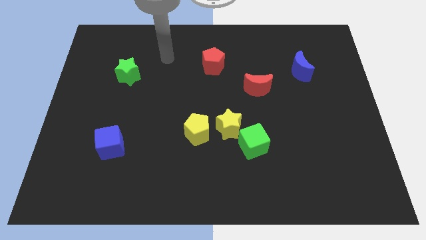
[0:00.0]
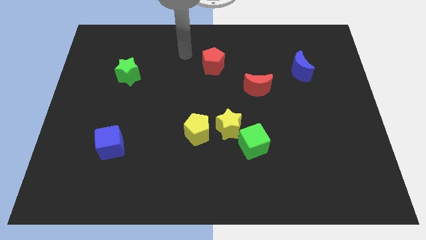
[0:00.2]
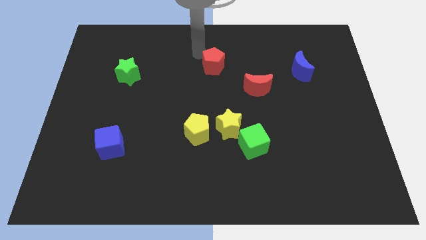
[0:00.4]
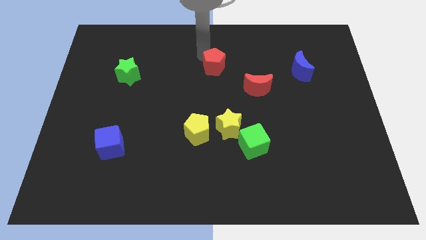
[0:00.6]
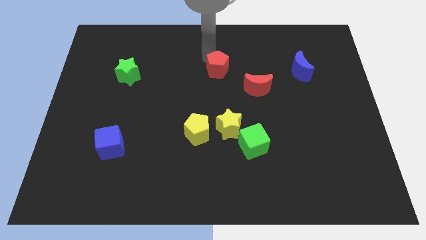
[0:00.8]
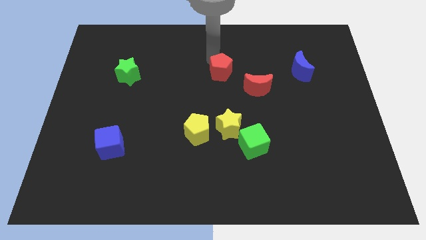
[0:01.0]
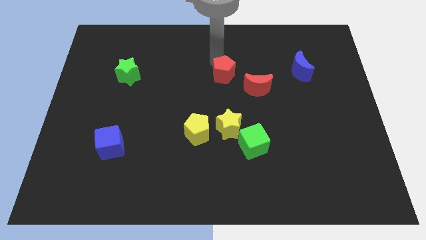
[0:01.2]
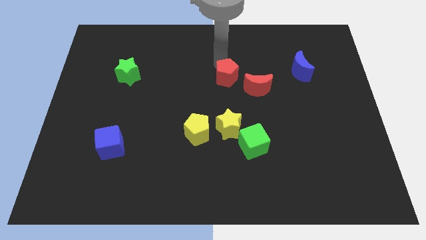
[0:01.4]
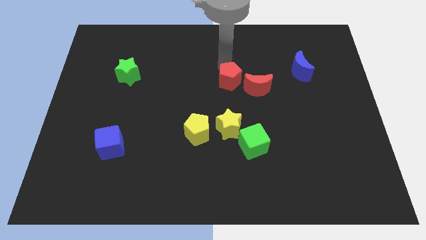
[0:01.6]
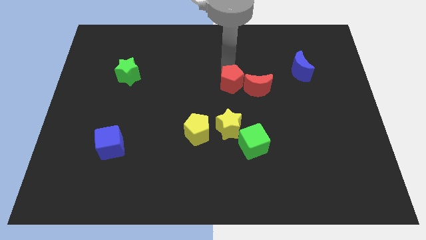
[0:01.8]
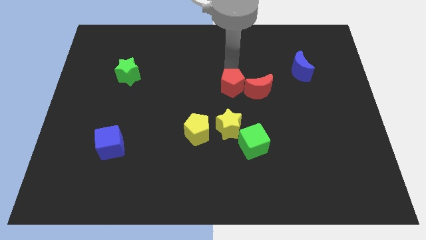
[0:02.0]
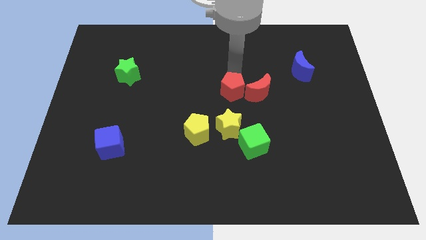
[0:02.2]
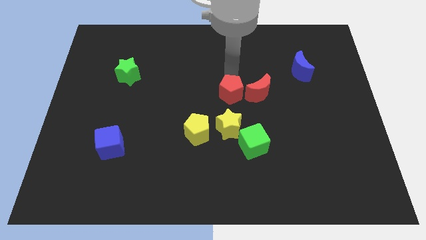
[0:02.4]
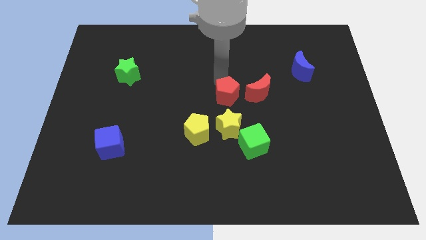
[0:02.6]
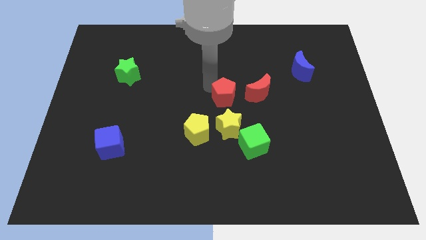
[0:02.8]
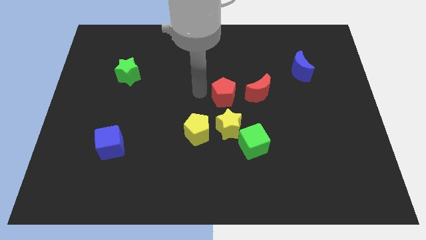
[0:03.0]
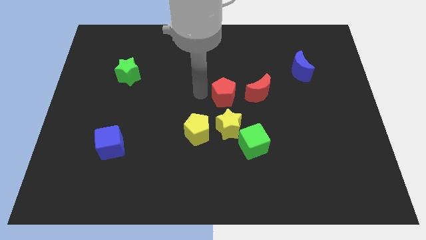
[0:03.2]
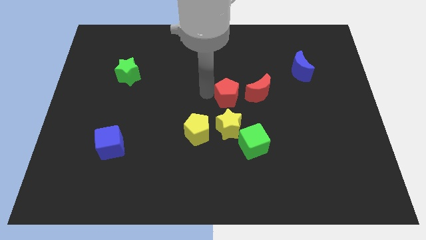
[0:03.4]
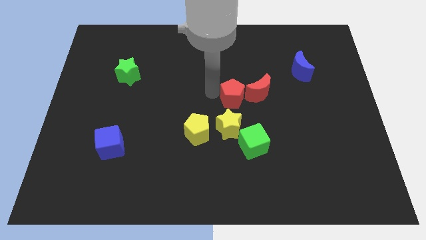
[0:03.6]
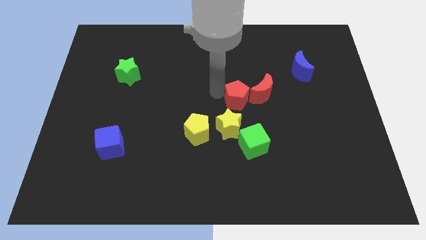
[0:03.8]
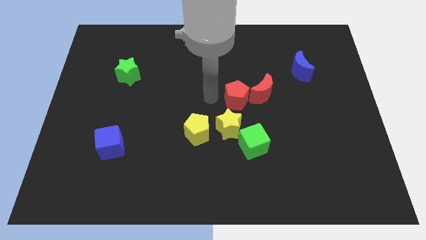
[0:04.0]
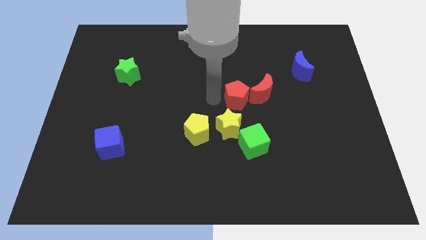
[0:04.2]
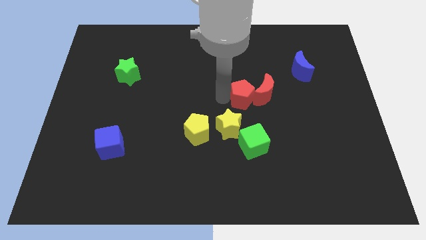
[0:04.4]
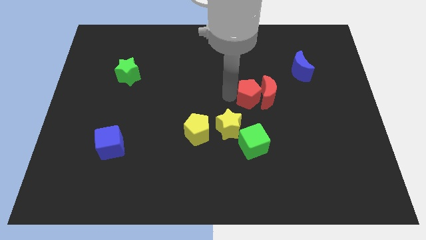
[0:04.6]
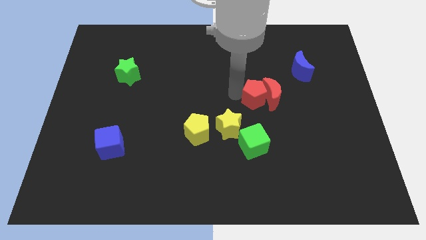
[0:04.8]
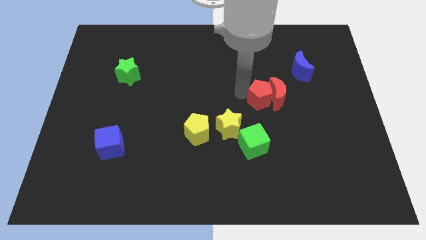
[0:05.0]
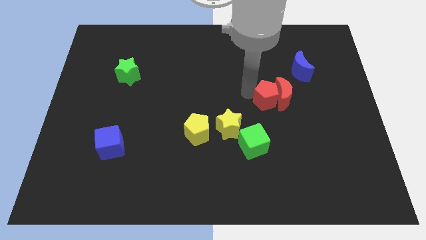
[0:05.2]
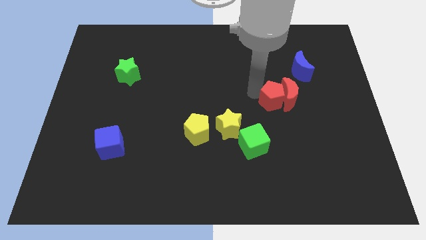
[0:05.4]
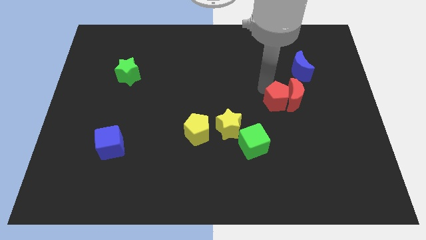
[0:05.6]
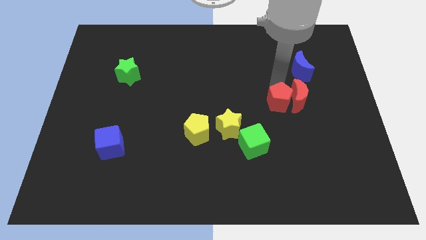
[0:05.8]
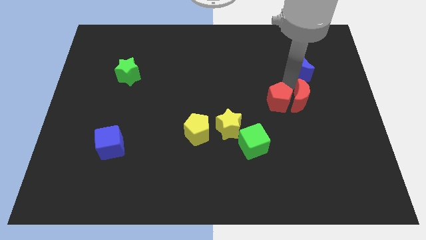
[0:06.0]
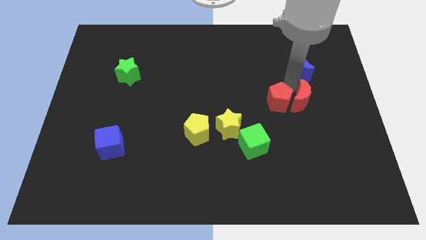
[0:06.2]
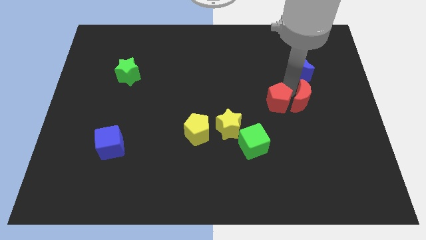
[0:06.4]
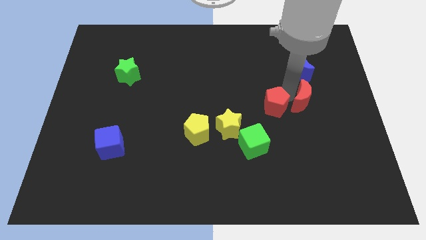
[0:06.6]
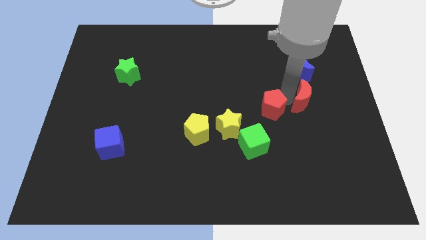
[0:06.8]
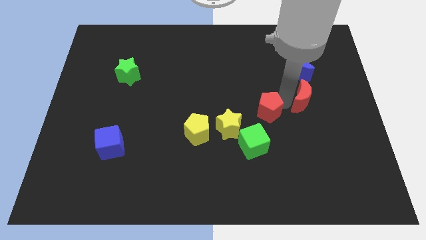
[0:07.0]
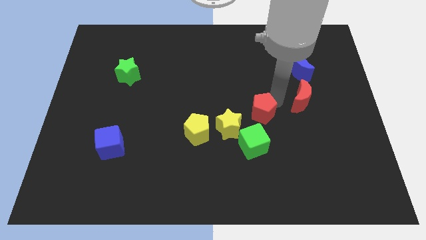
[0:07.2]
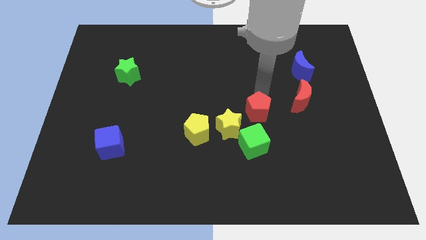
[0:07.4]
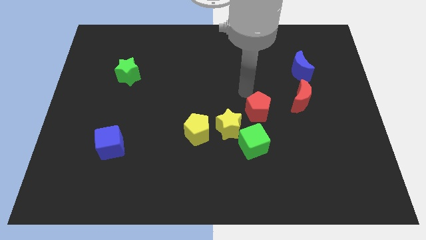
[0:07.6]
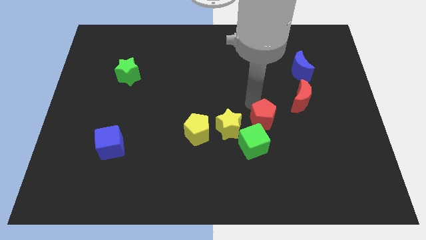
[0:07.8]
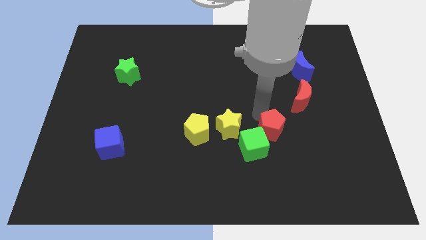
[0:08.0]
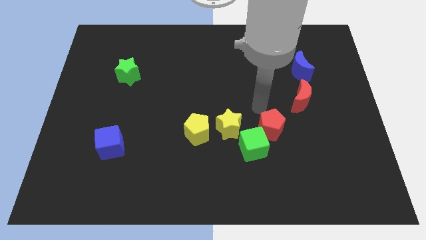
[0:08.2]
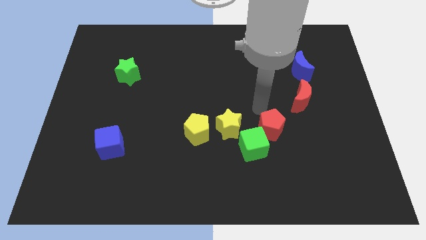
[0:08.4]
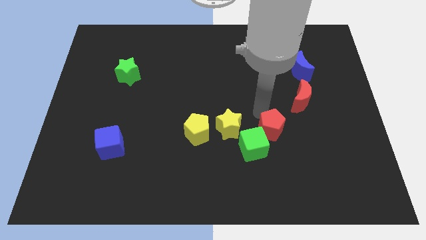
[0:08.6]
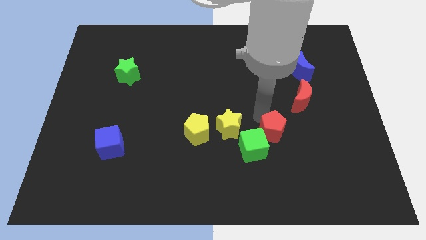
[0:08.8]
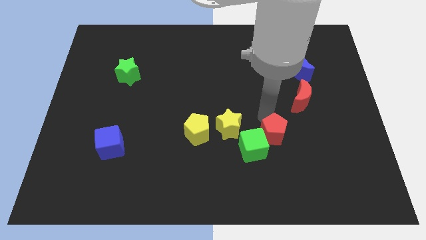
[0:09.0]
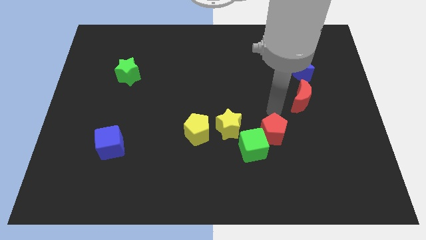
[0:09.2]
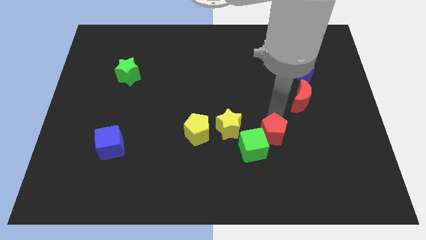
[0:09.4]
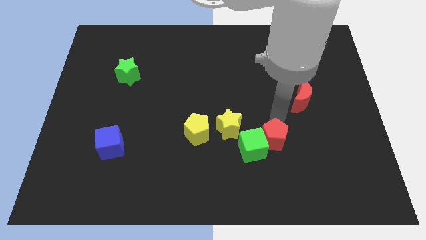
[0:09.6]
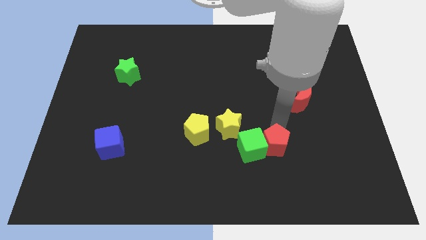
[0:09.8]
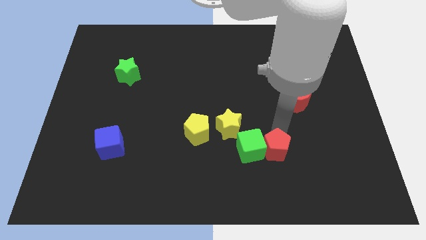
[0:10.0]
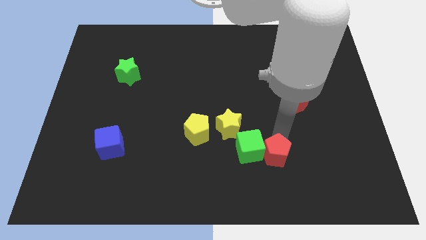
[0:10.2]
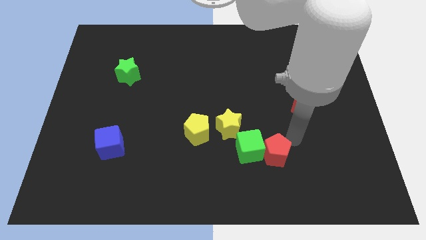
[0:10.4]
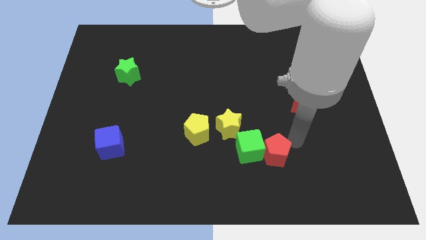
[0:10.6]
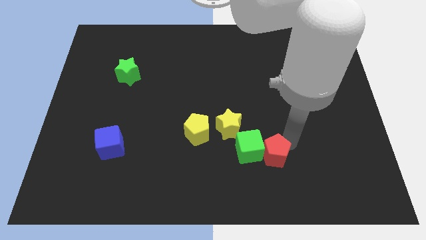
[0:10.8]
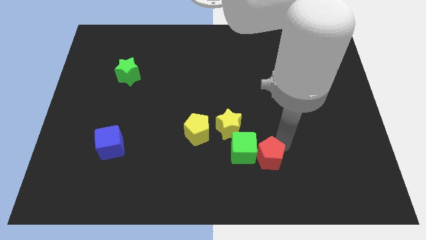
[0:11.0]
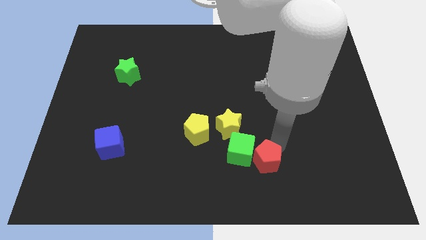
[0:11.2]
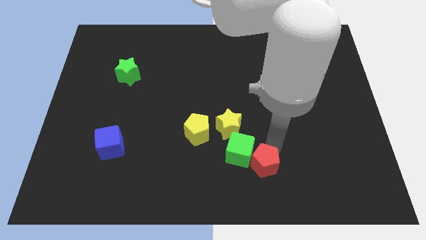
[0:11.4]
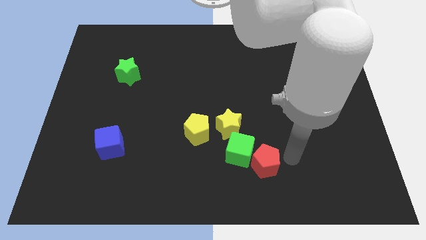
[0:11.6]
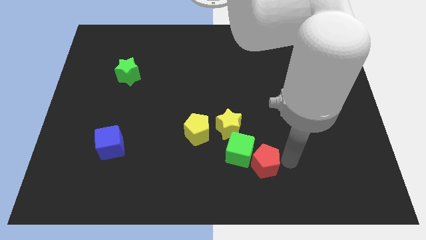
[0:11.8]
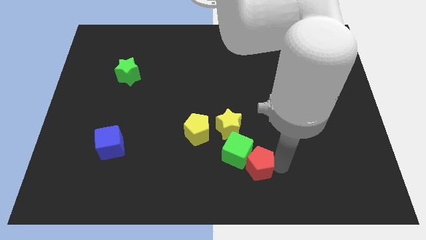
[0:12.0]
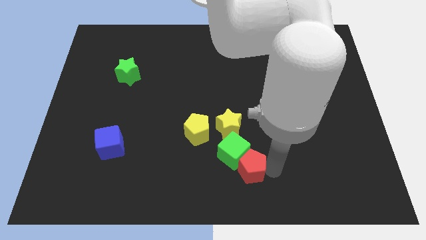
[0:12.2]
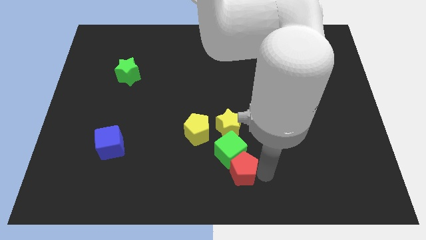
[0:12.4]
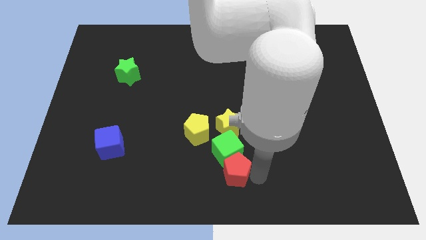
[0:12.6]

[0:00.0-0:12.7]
push the red pentagon to the bottom left of the green cube

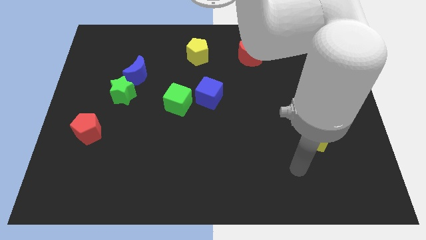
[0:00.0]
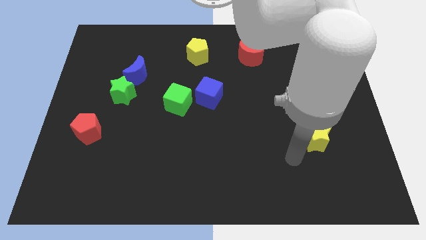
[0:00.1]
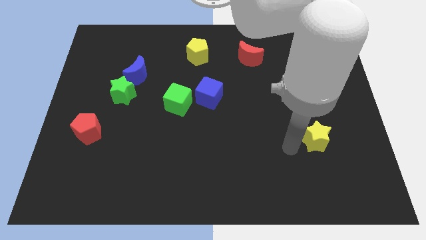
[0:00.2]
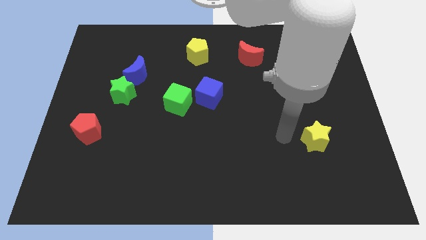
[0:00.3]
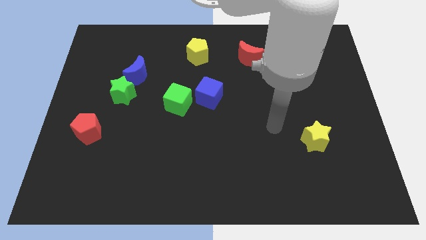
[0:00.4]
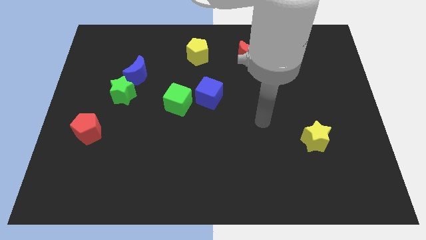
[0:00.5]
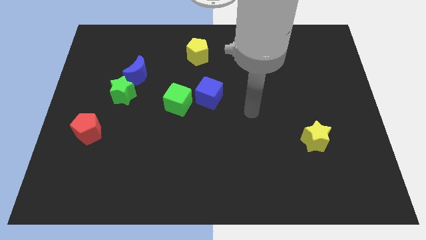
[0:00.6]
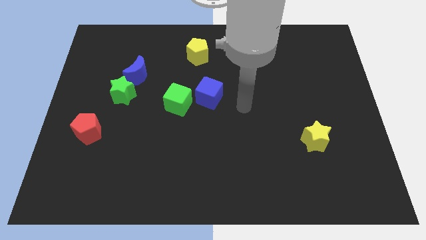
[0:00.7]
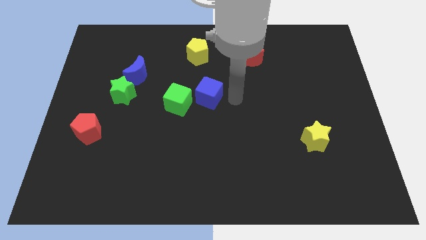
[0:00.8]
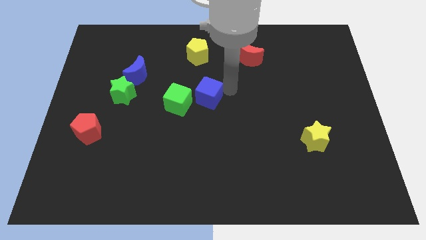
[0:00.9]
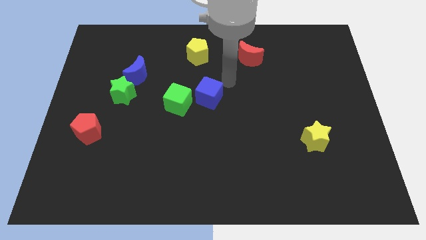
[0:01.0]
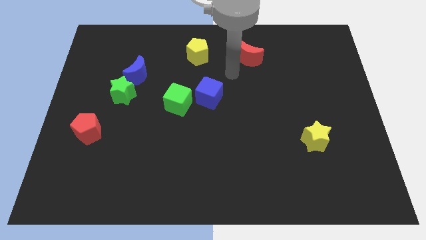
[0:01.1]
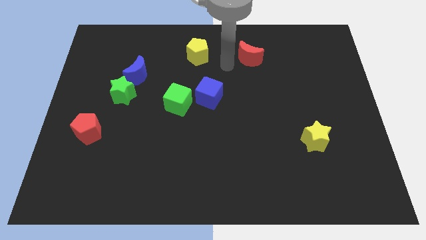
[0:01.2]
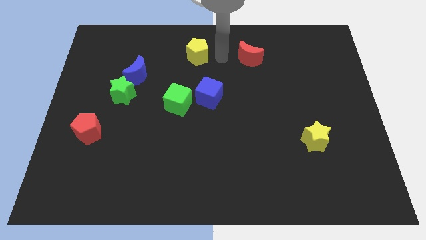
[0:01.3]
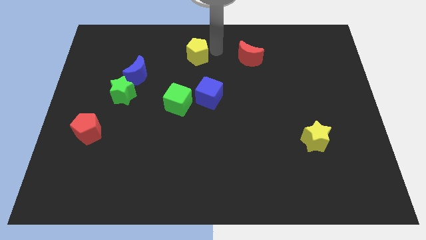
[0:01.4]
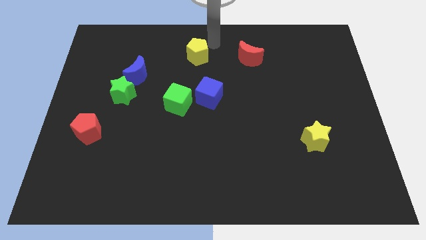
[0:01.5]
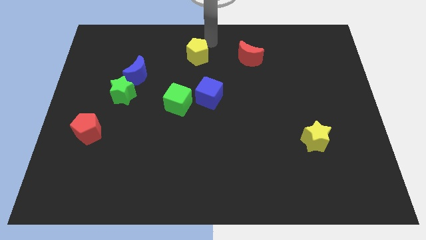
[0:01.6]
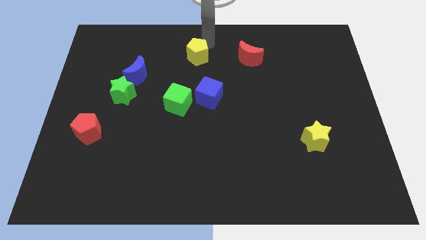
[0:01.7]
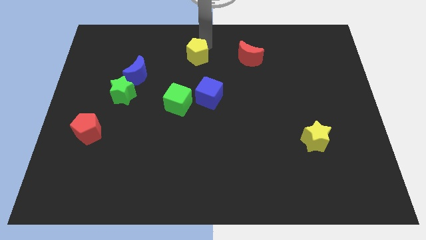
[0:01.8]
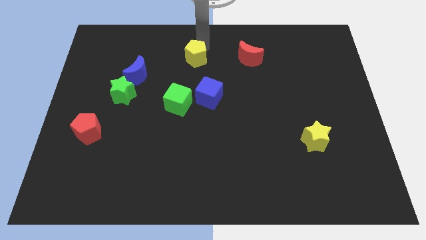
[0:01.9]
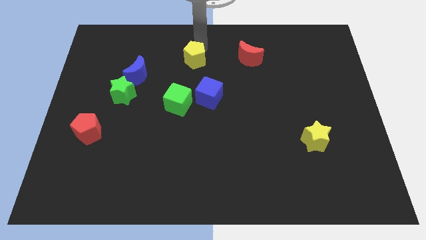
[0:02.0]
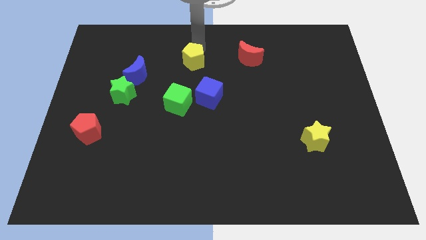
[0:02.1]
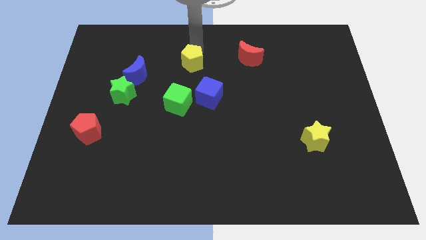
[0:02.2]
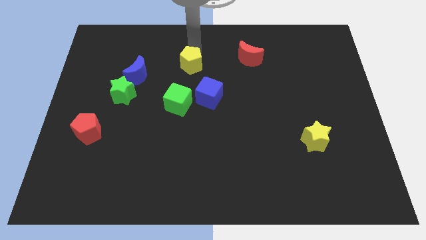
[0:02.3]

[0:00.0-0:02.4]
push the yellow pentagon just right of the blue moon
